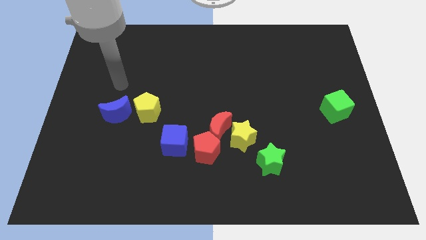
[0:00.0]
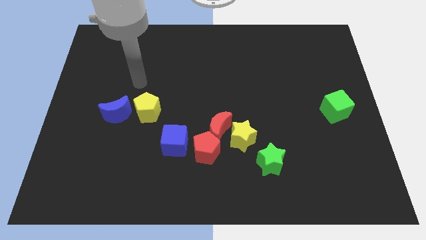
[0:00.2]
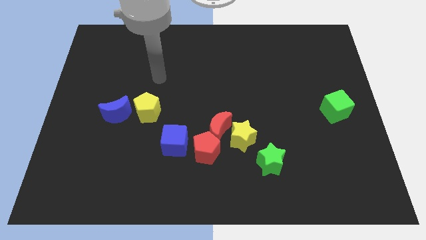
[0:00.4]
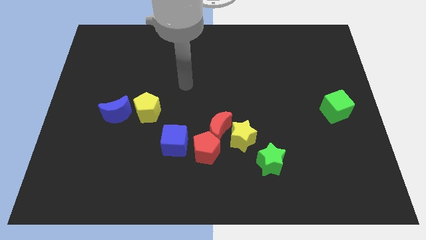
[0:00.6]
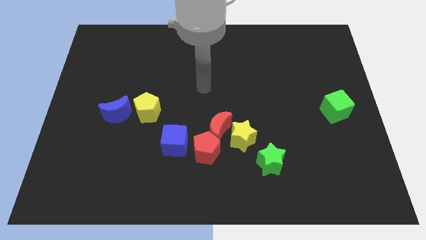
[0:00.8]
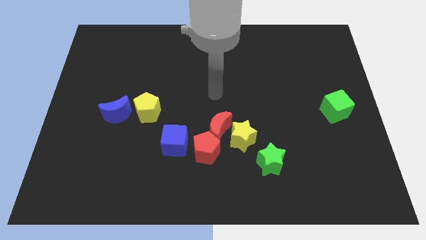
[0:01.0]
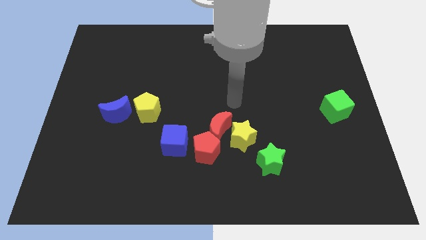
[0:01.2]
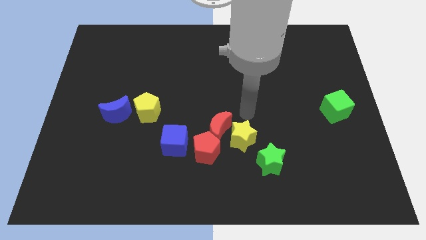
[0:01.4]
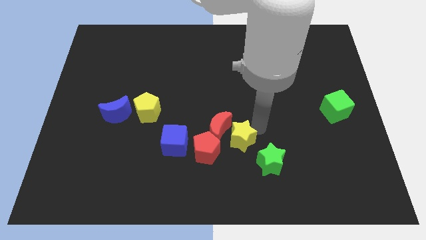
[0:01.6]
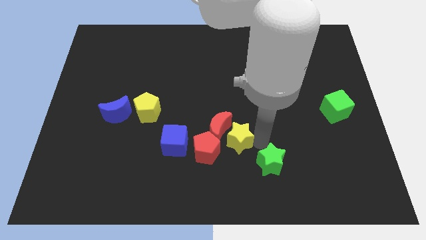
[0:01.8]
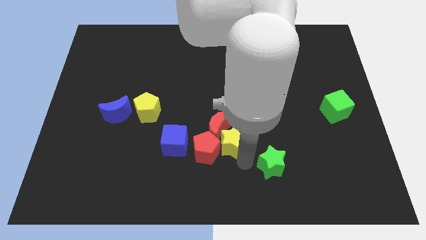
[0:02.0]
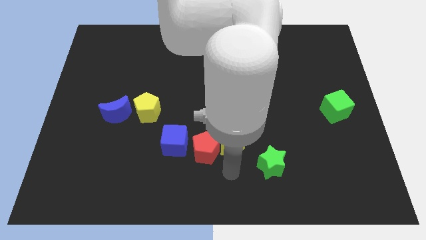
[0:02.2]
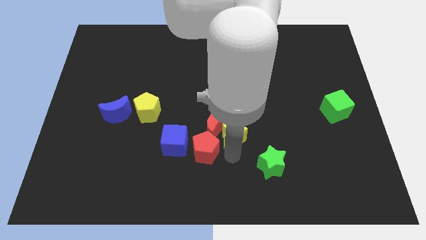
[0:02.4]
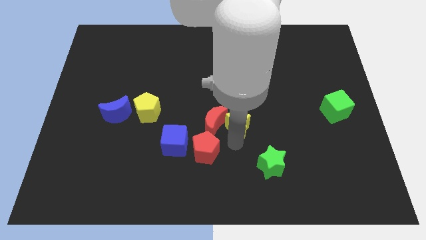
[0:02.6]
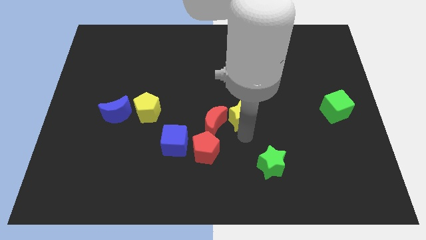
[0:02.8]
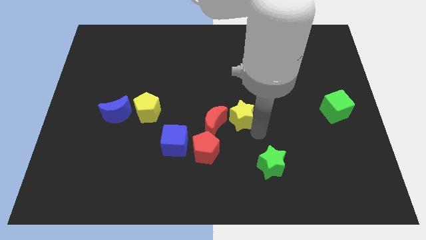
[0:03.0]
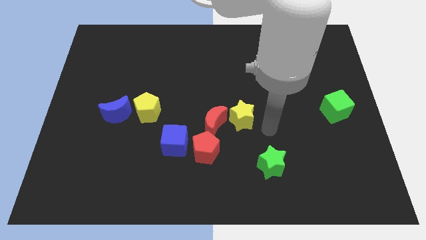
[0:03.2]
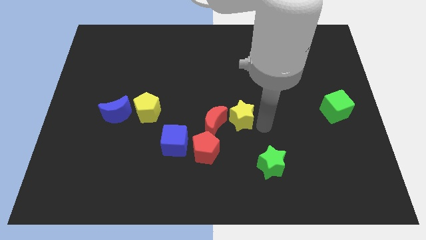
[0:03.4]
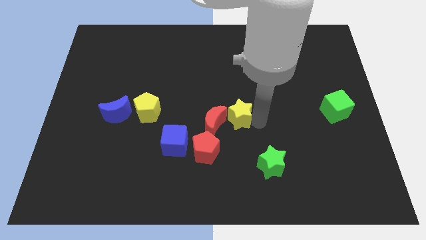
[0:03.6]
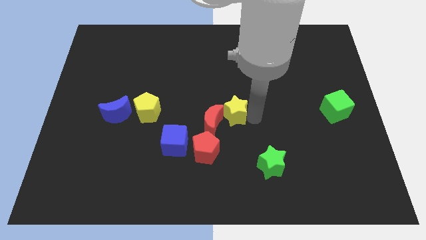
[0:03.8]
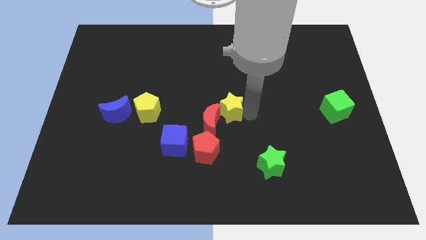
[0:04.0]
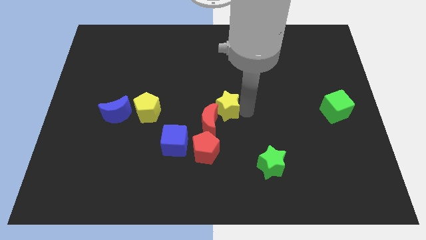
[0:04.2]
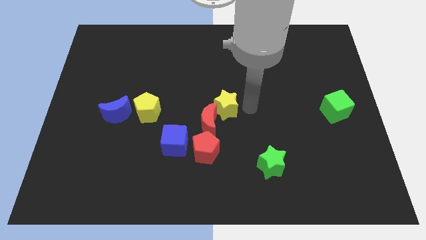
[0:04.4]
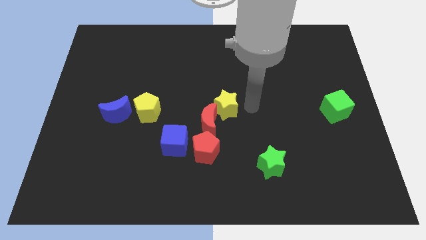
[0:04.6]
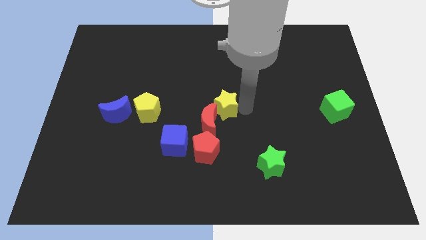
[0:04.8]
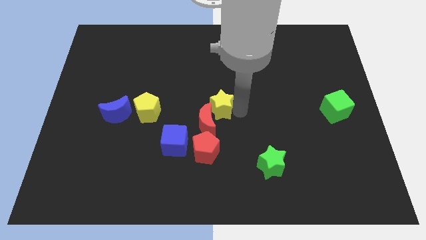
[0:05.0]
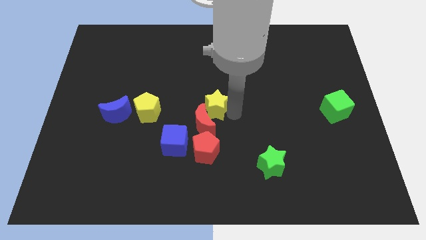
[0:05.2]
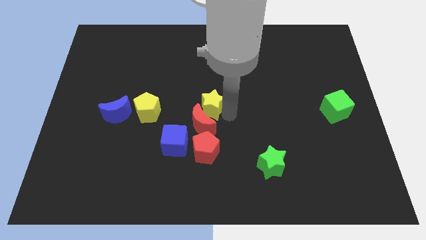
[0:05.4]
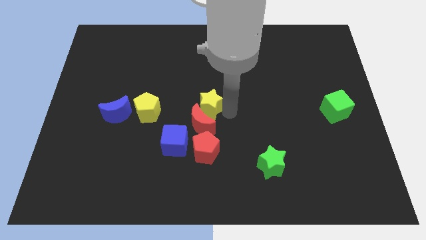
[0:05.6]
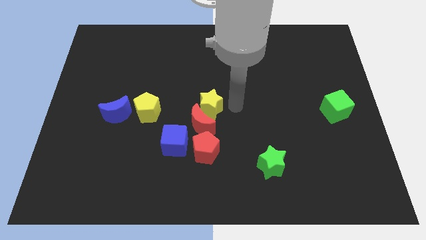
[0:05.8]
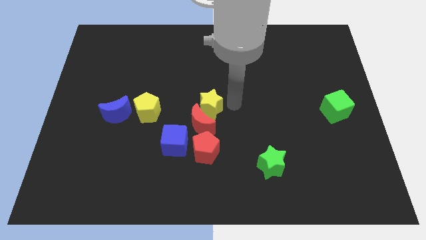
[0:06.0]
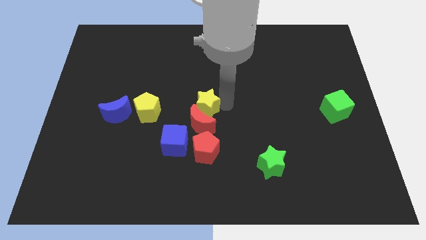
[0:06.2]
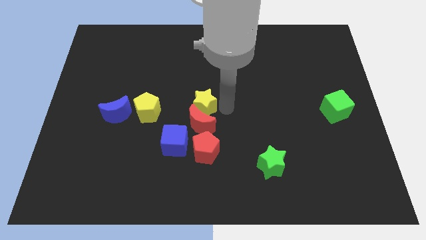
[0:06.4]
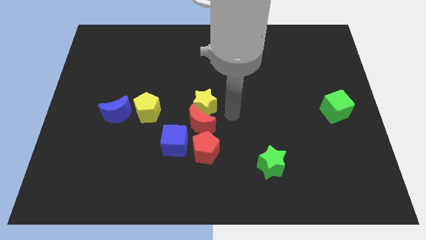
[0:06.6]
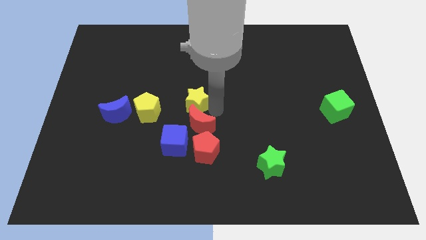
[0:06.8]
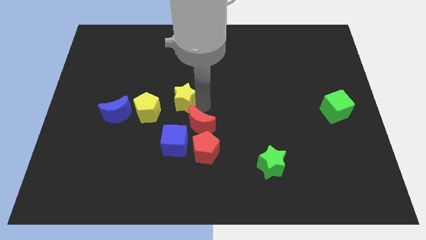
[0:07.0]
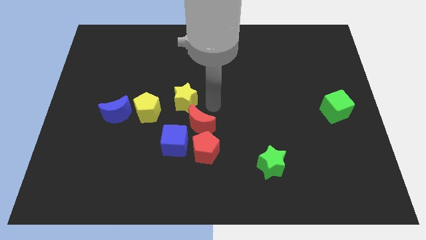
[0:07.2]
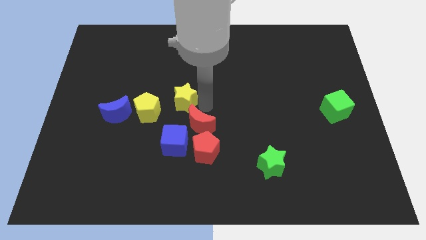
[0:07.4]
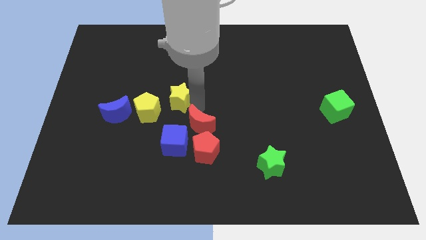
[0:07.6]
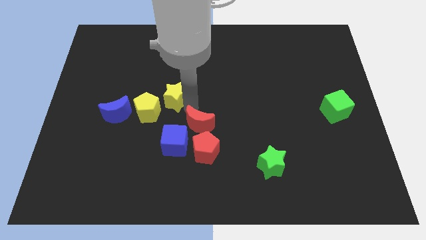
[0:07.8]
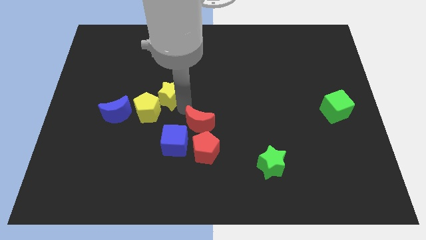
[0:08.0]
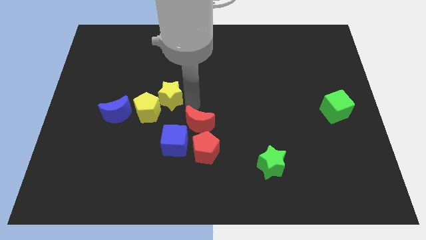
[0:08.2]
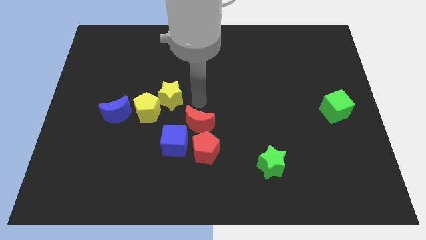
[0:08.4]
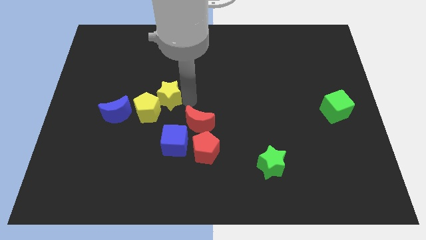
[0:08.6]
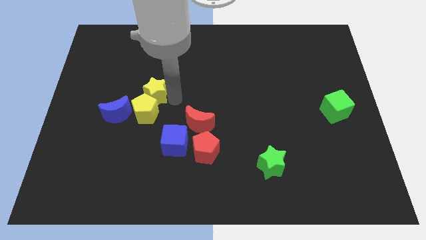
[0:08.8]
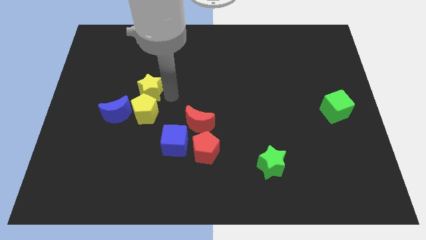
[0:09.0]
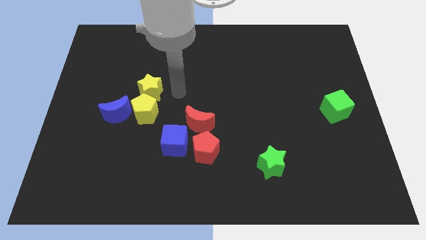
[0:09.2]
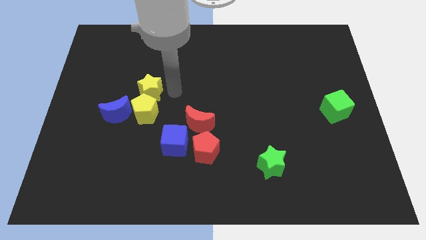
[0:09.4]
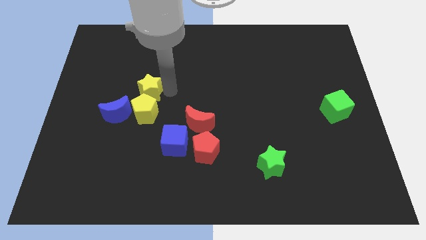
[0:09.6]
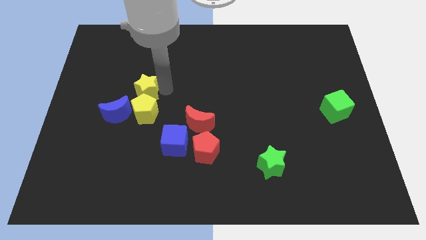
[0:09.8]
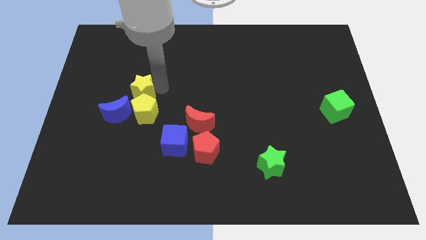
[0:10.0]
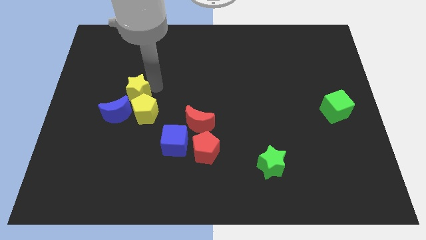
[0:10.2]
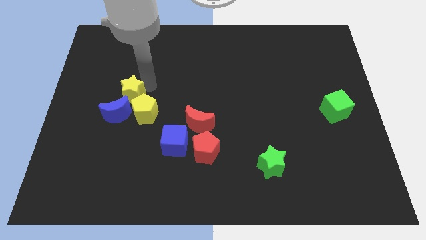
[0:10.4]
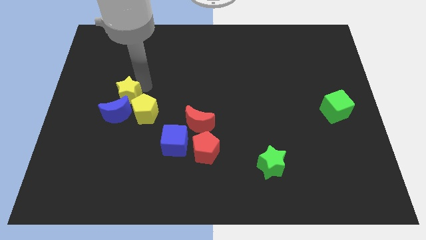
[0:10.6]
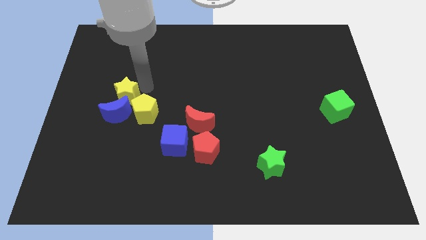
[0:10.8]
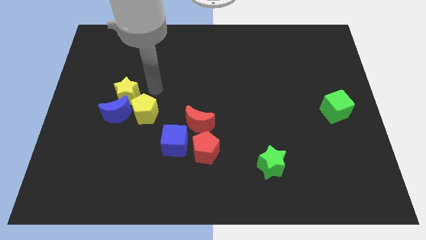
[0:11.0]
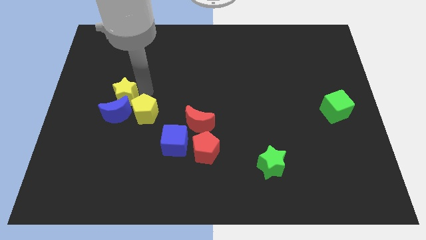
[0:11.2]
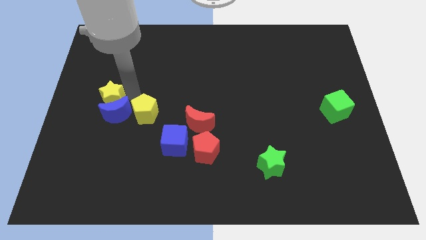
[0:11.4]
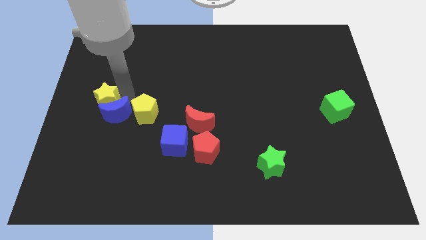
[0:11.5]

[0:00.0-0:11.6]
move the yellow star to the left side of the board

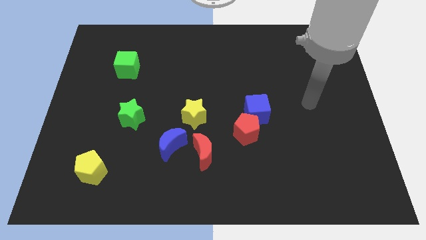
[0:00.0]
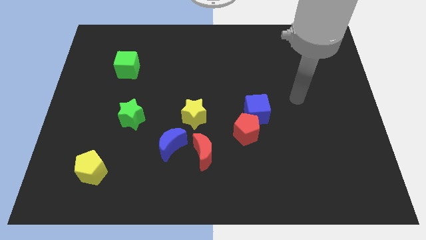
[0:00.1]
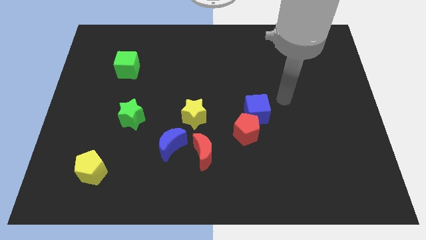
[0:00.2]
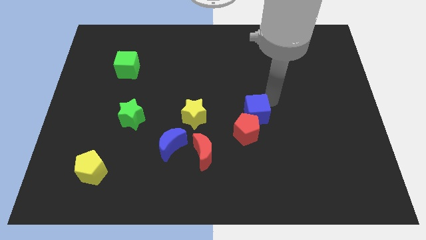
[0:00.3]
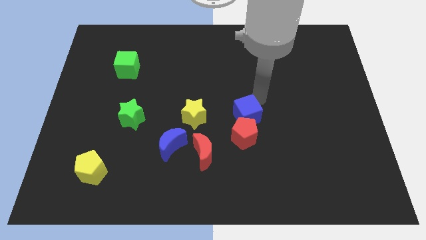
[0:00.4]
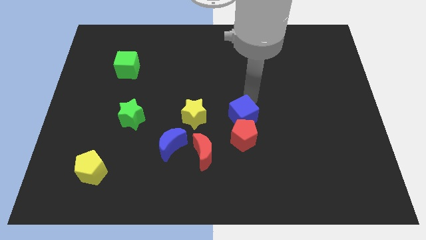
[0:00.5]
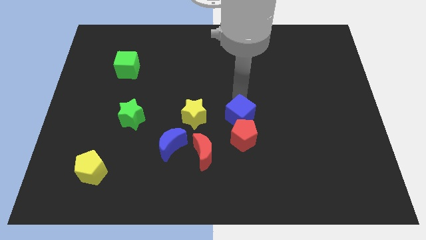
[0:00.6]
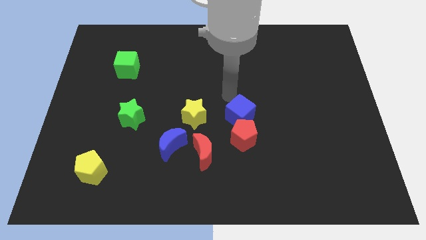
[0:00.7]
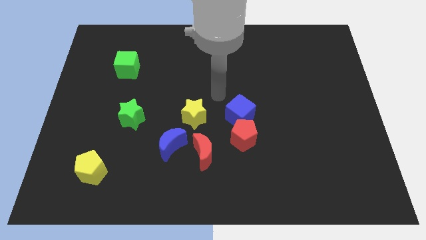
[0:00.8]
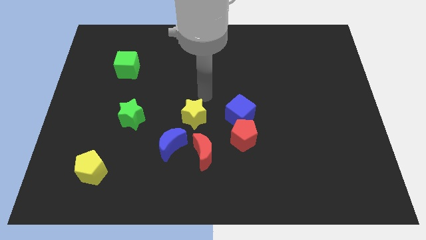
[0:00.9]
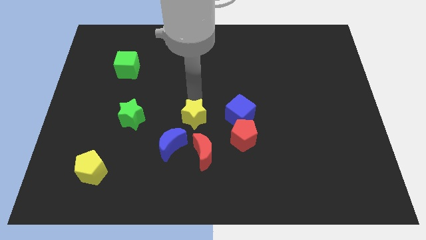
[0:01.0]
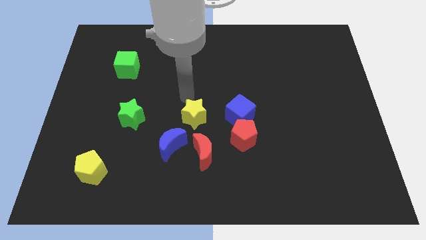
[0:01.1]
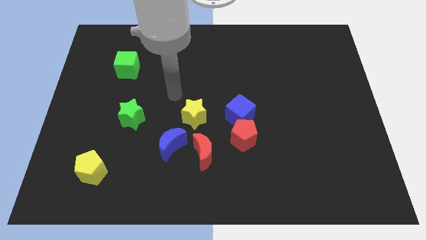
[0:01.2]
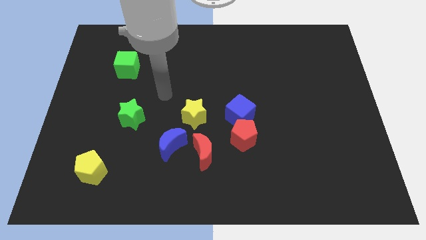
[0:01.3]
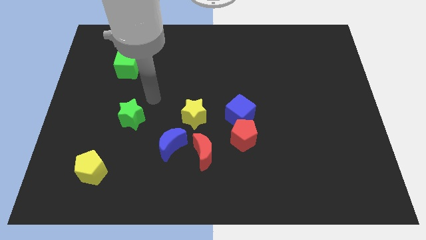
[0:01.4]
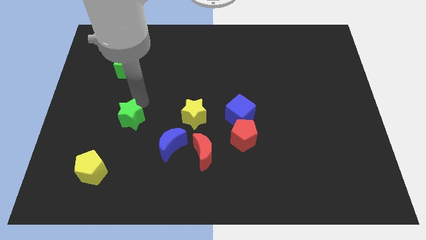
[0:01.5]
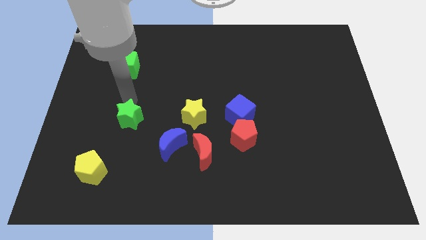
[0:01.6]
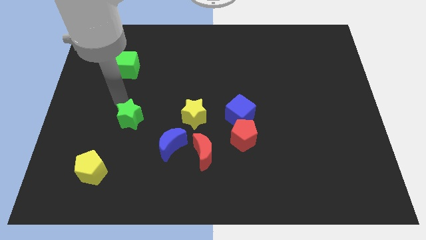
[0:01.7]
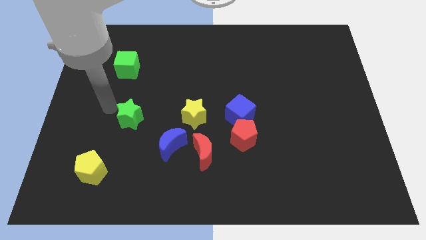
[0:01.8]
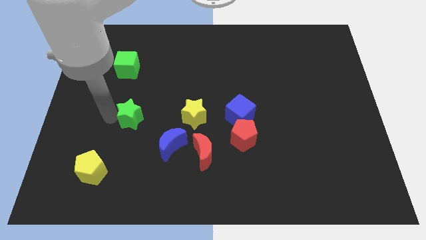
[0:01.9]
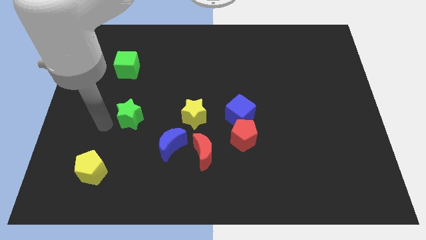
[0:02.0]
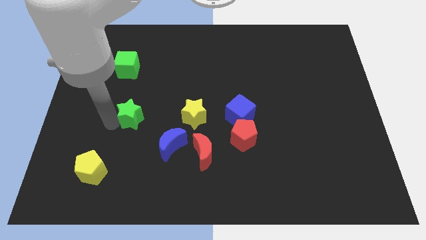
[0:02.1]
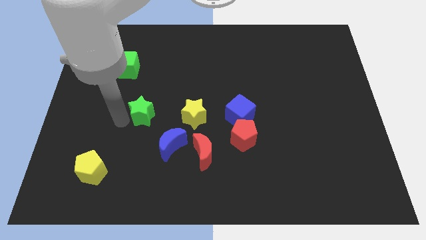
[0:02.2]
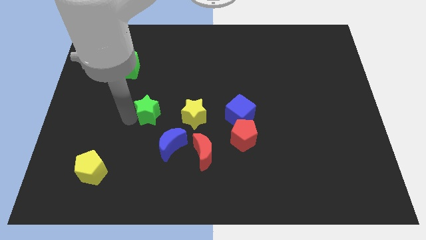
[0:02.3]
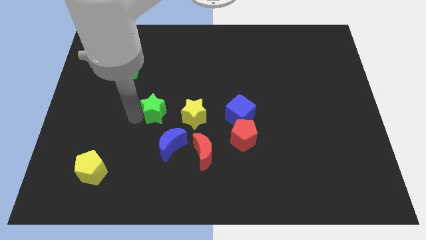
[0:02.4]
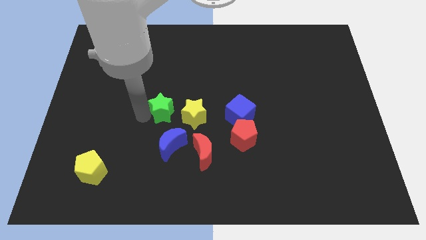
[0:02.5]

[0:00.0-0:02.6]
push the green star to the middle of the board
